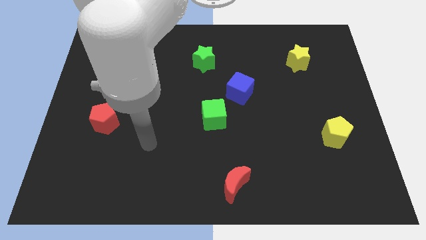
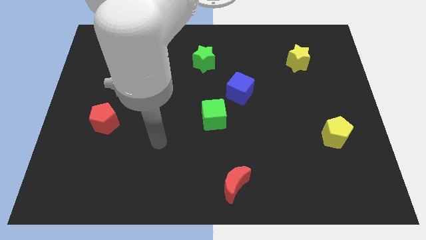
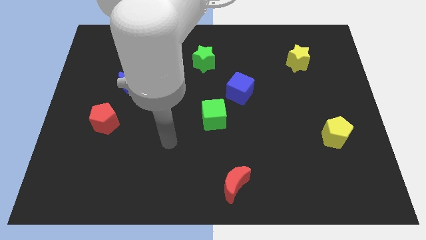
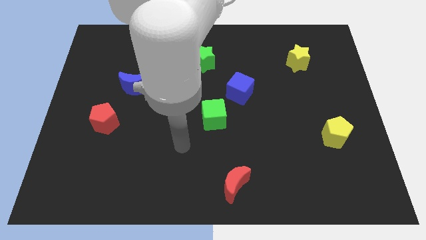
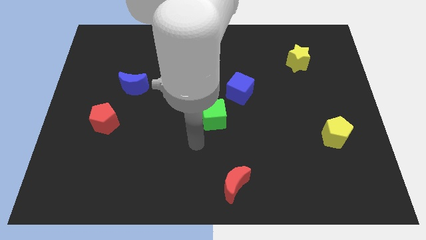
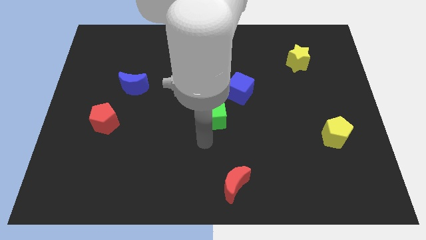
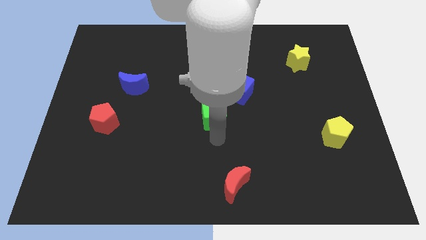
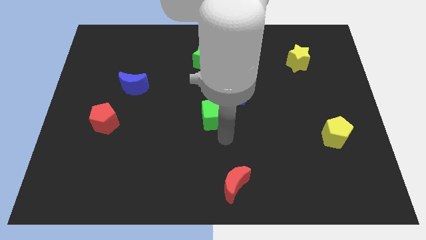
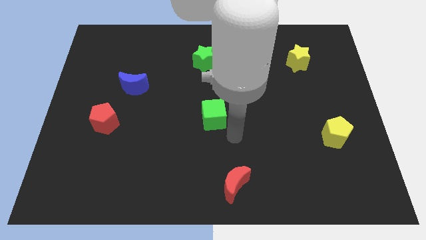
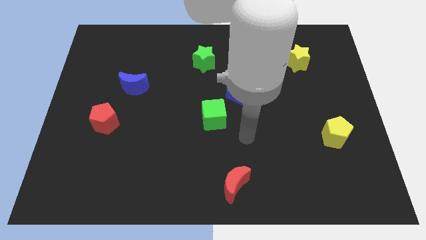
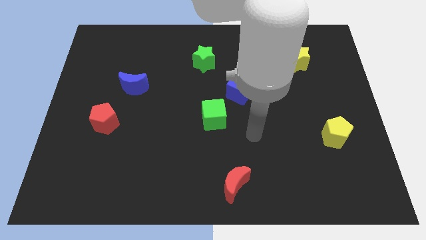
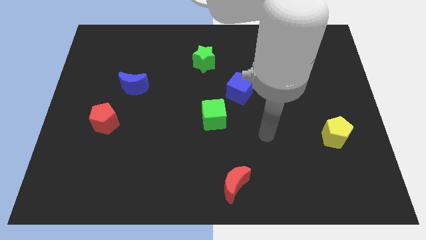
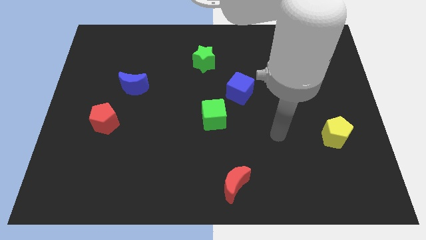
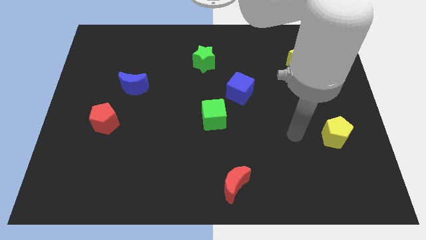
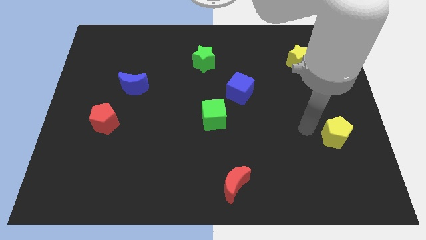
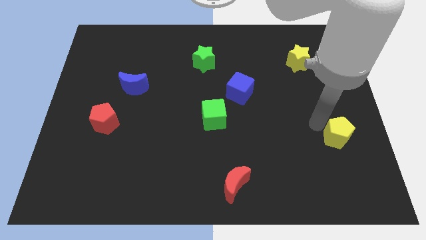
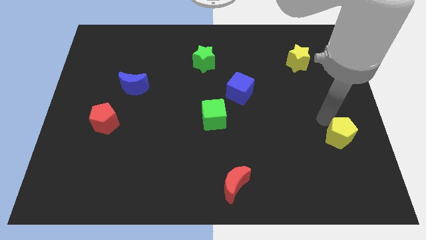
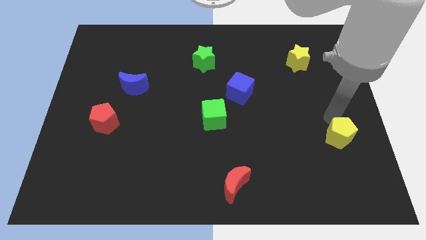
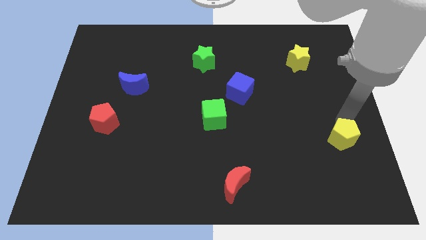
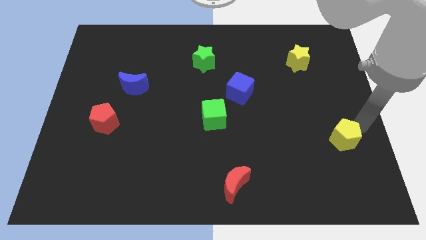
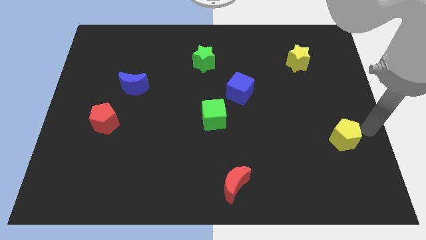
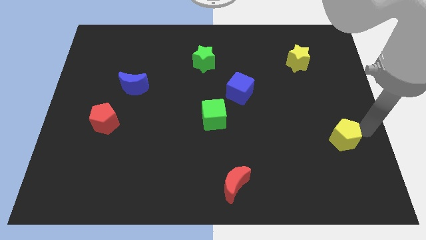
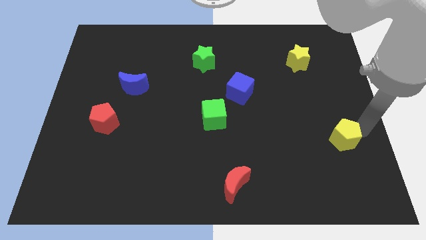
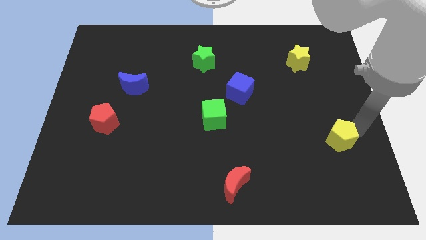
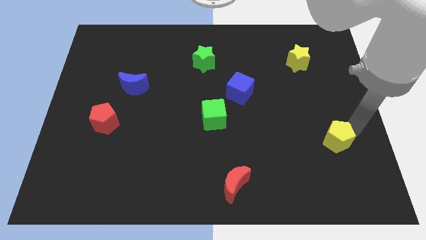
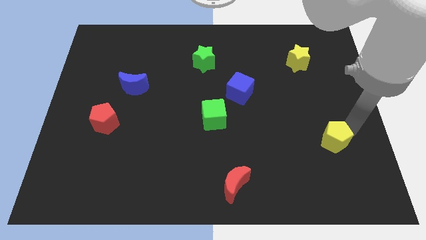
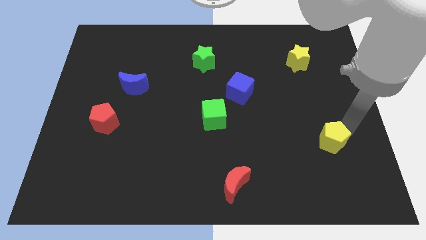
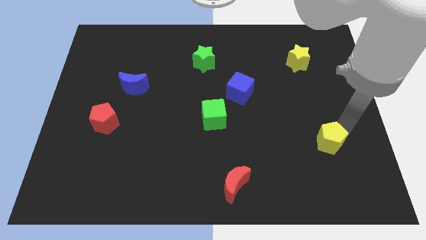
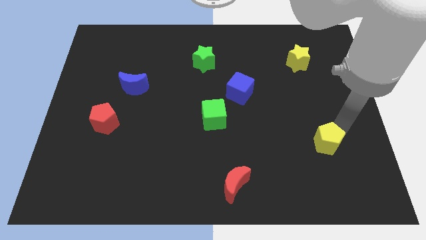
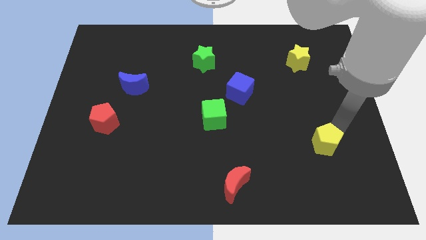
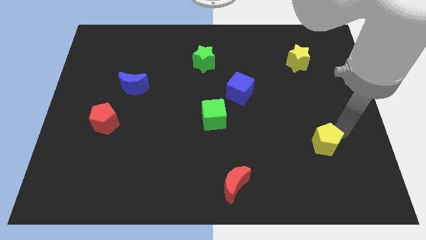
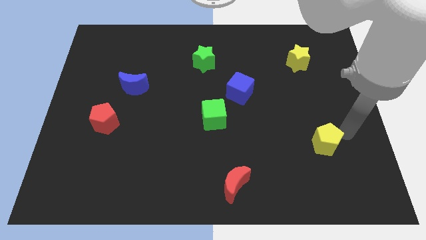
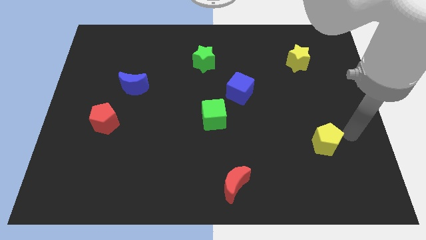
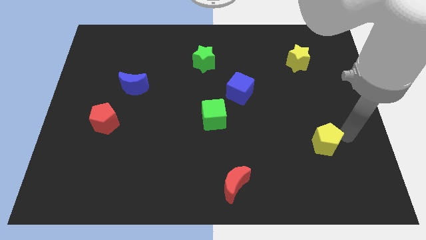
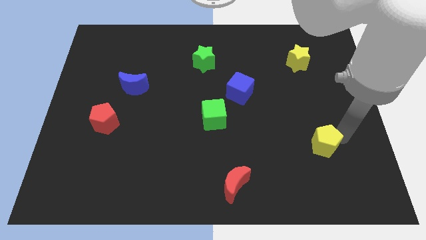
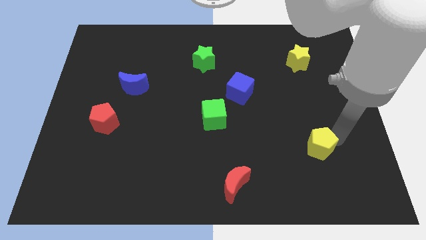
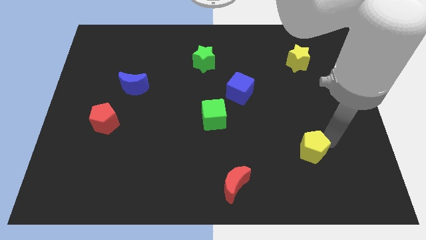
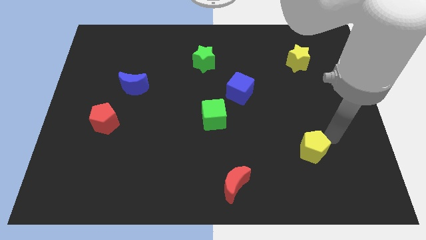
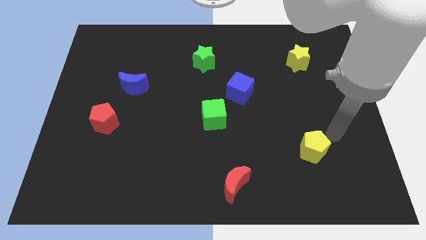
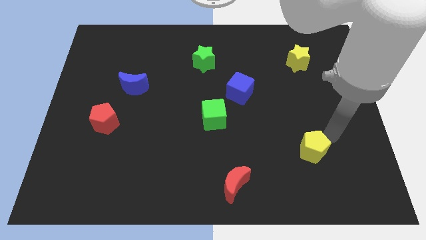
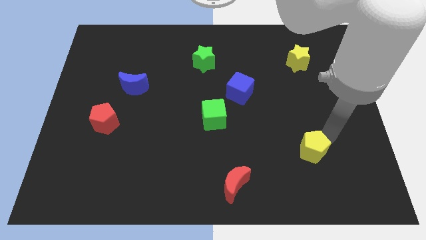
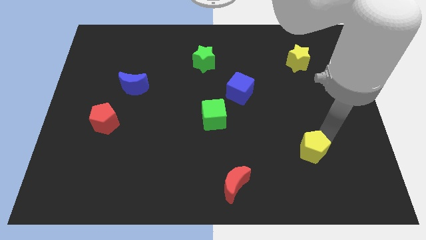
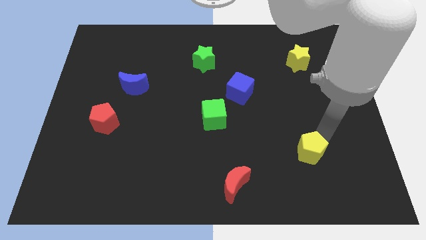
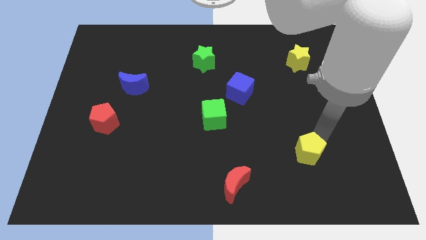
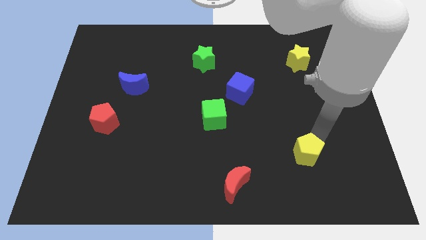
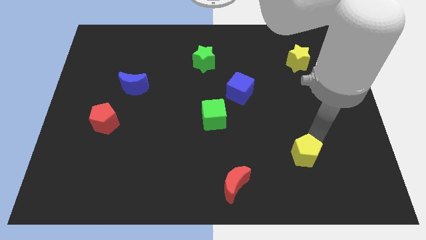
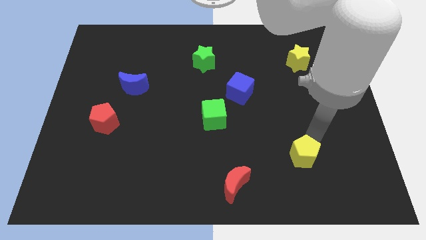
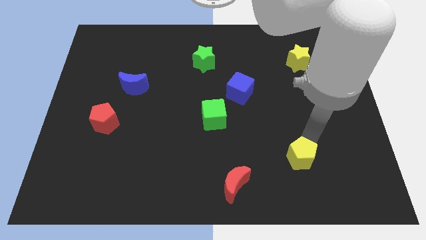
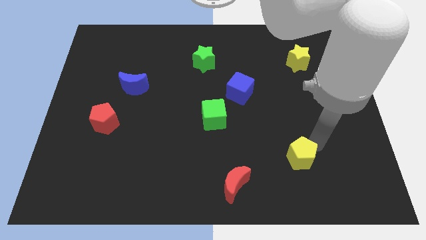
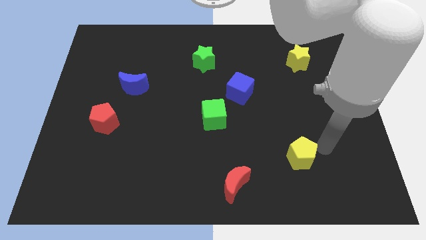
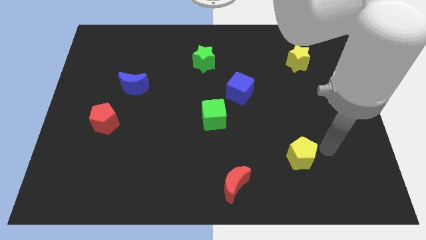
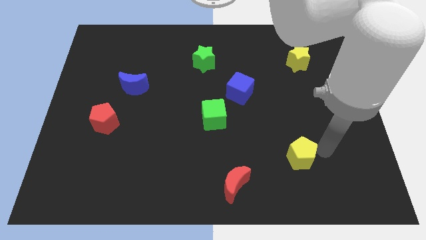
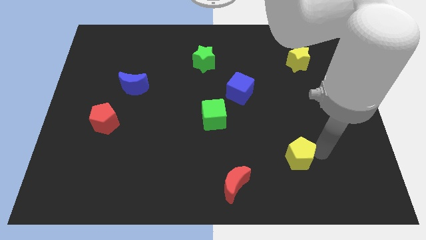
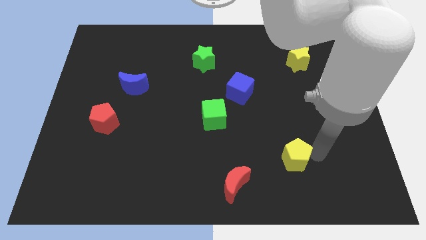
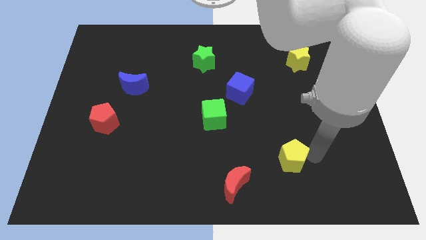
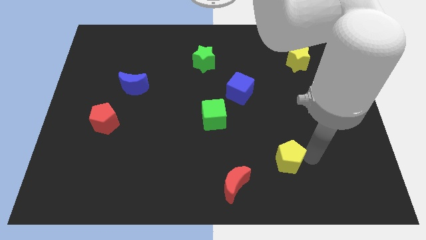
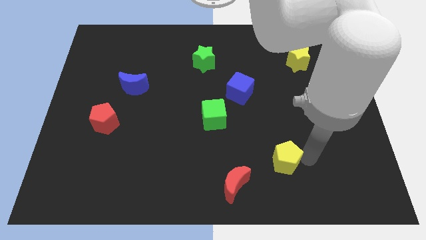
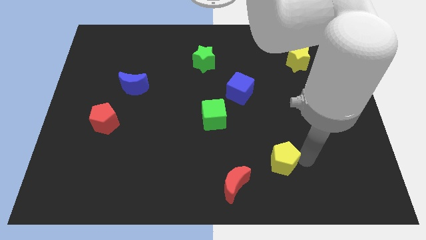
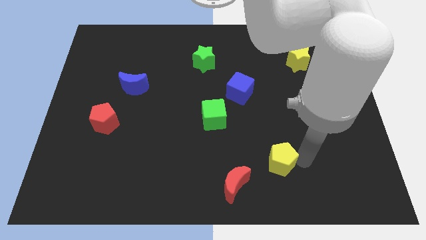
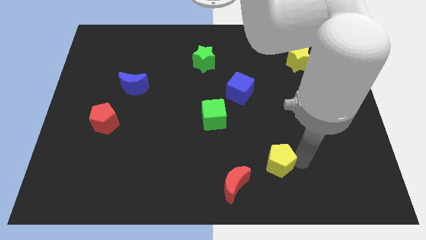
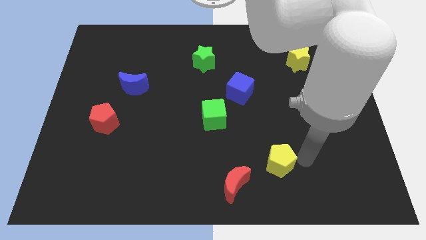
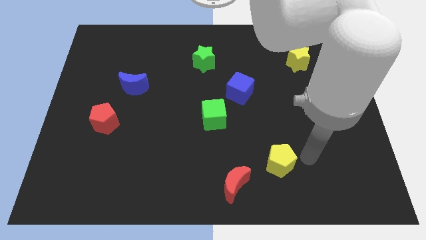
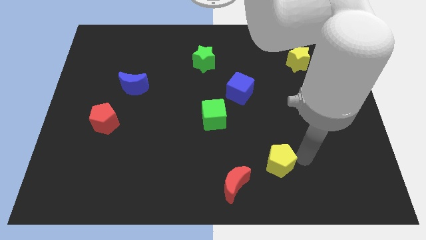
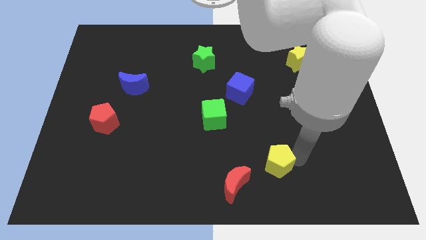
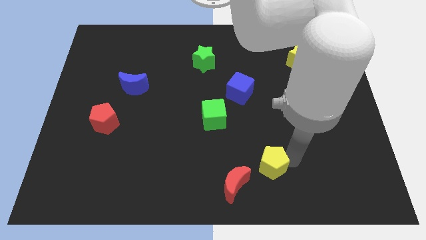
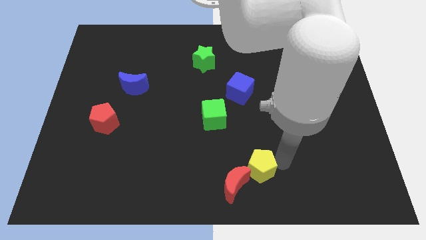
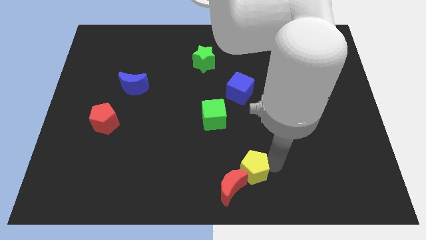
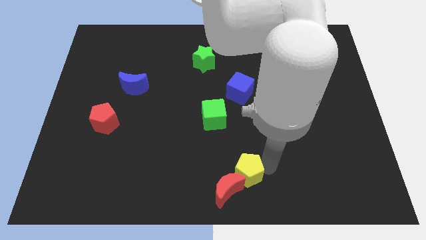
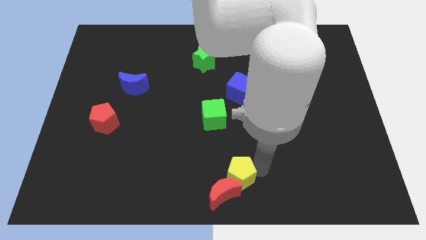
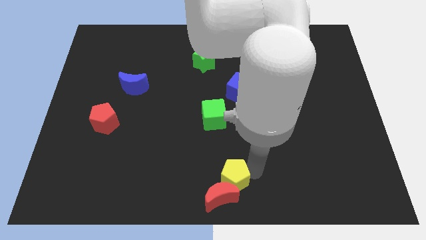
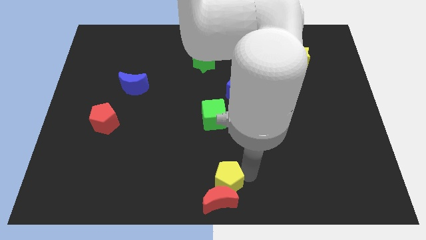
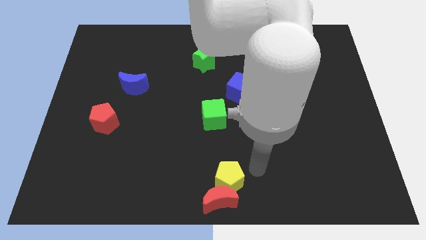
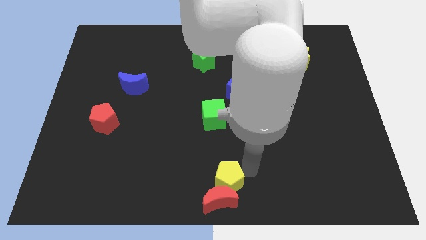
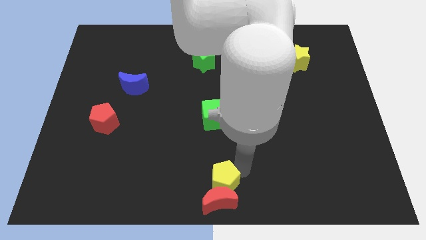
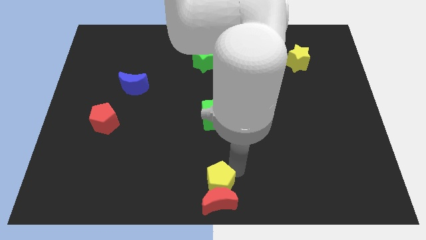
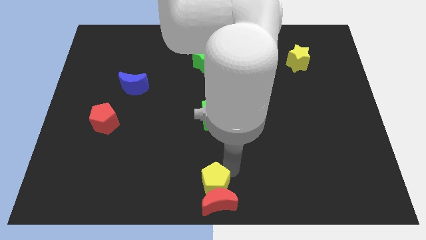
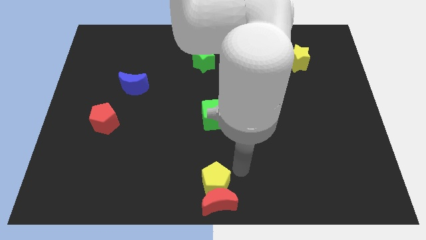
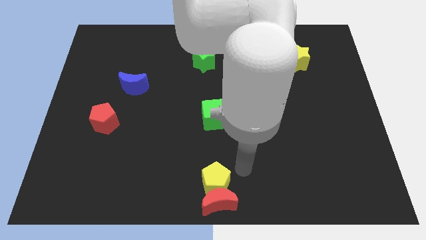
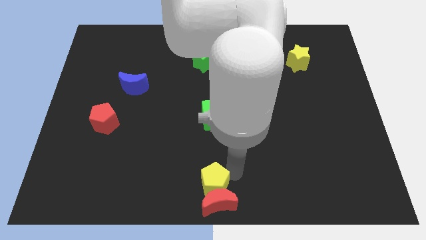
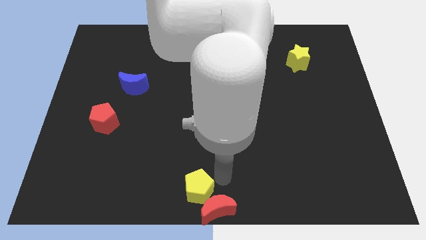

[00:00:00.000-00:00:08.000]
put the yellow pentagon just left of the red moon
